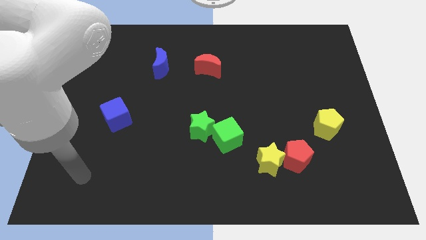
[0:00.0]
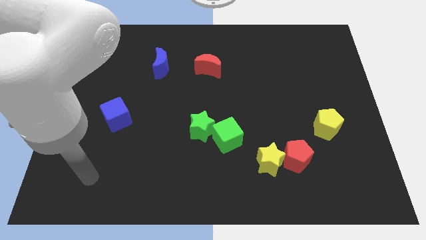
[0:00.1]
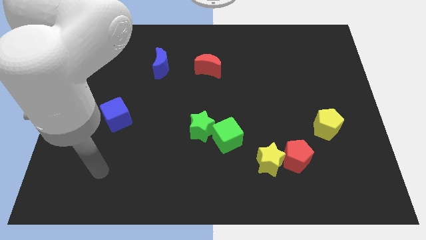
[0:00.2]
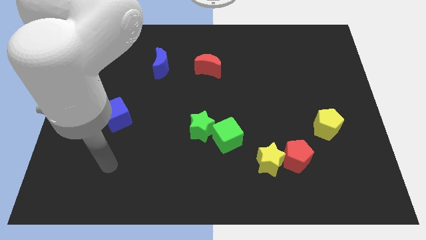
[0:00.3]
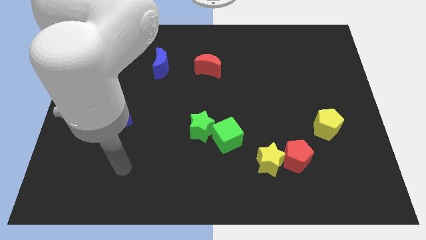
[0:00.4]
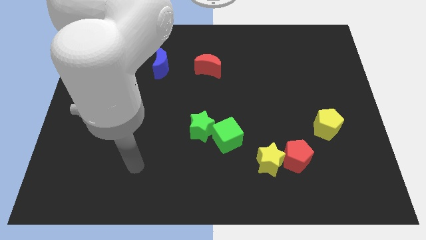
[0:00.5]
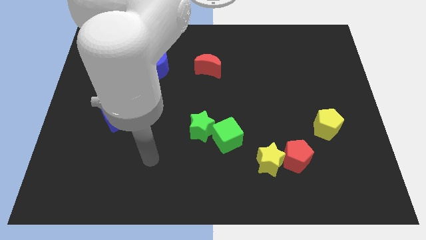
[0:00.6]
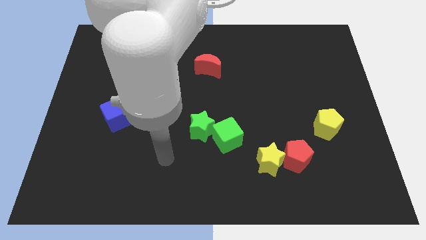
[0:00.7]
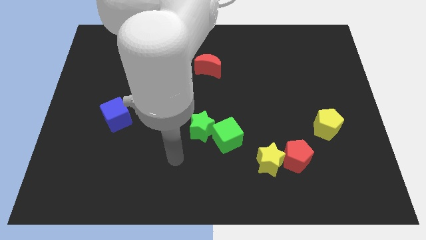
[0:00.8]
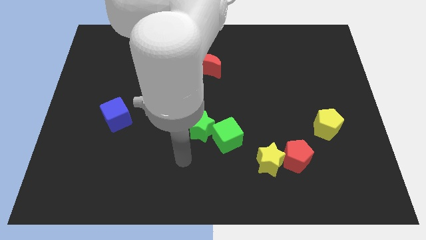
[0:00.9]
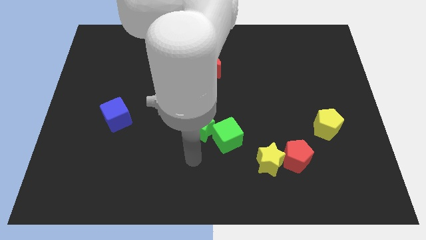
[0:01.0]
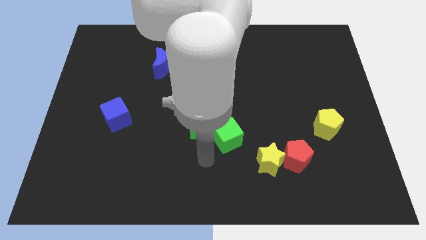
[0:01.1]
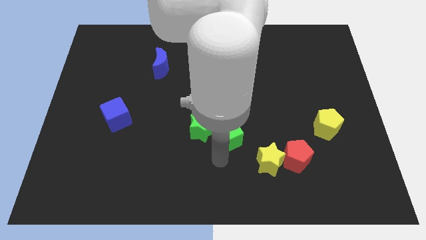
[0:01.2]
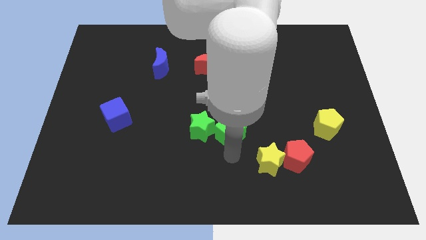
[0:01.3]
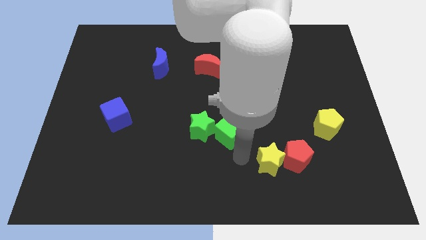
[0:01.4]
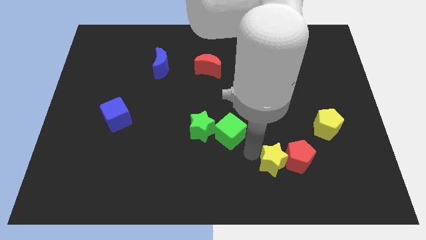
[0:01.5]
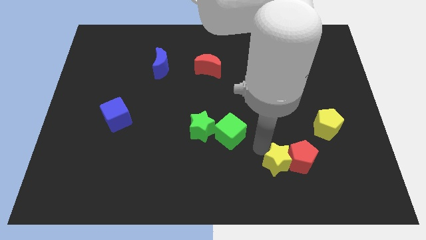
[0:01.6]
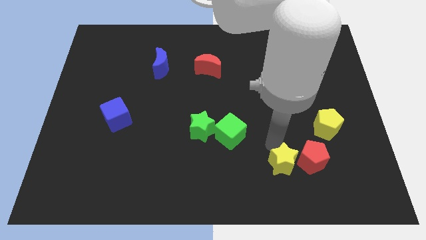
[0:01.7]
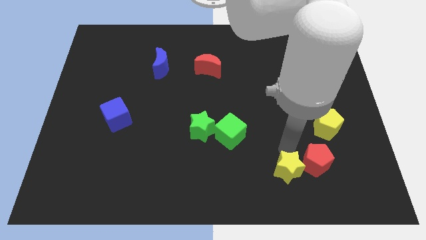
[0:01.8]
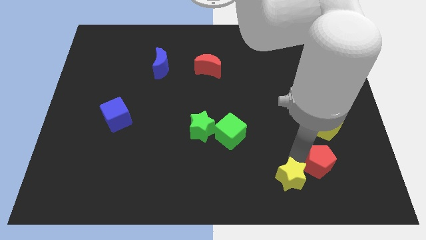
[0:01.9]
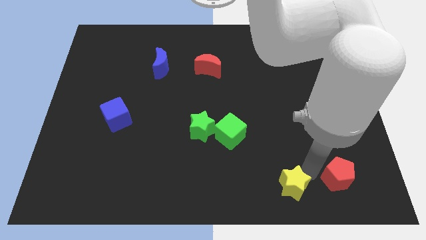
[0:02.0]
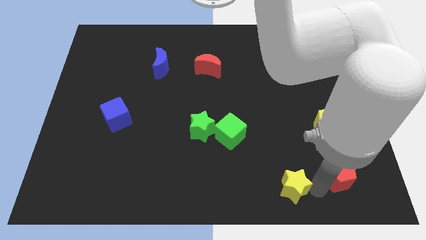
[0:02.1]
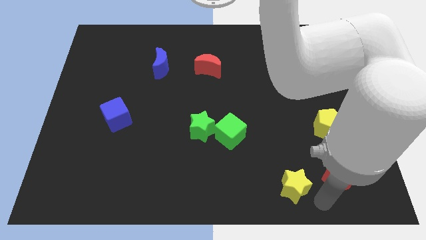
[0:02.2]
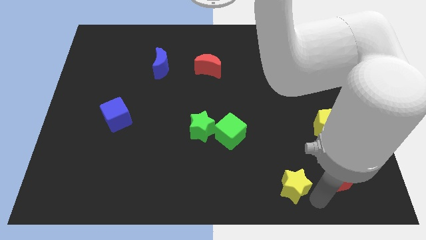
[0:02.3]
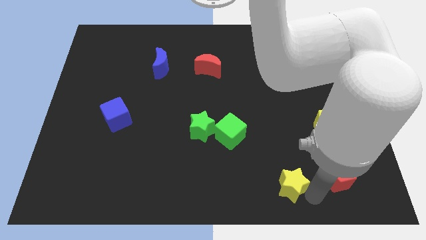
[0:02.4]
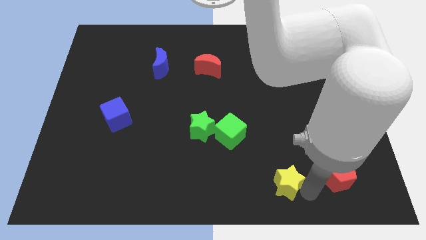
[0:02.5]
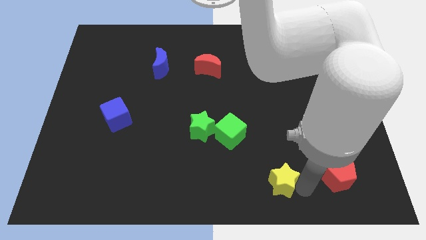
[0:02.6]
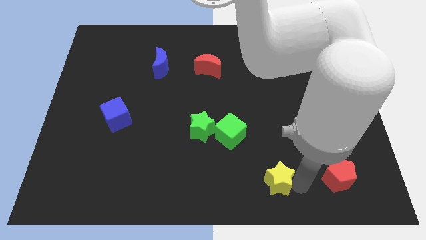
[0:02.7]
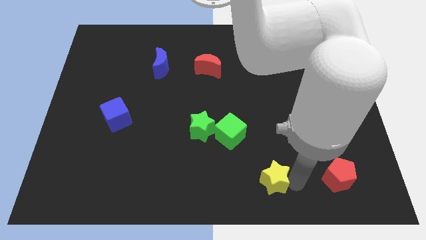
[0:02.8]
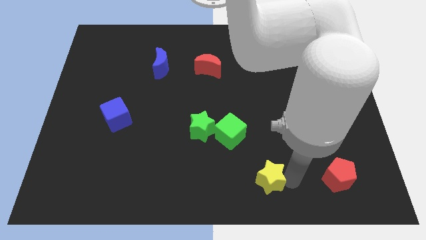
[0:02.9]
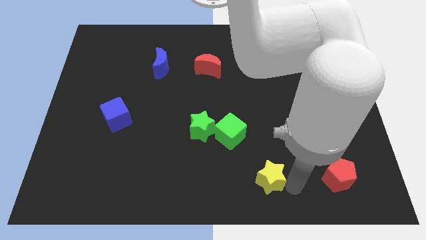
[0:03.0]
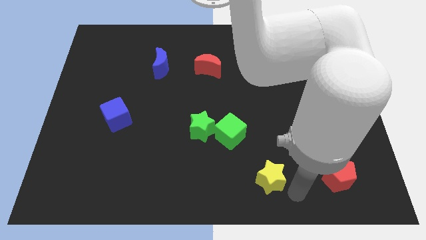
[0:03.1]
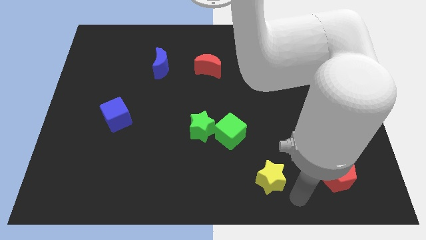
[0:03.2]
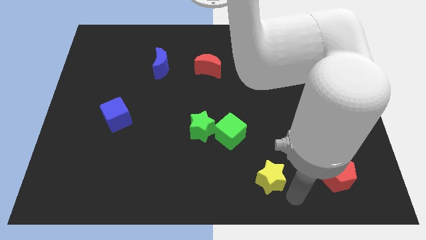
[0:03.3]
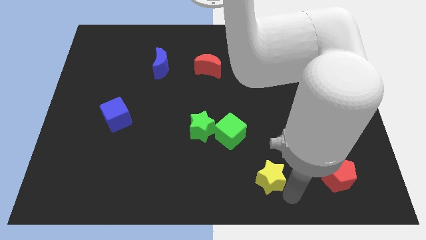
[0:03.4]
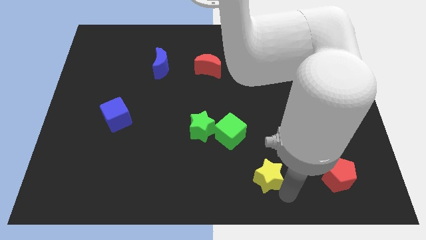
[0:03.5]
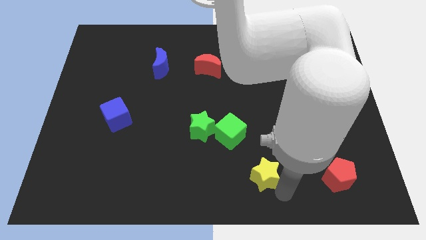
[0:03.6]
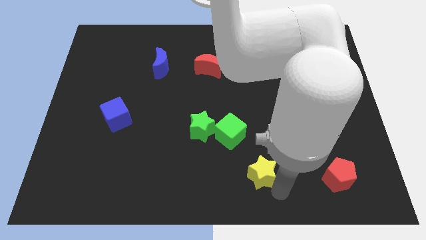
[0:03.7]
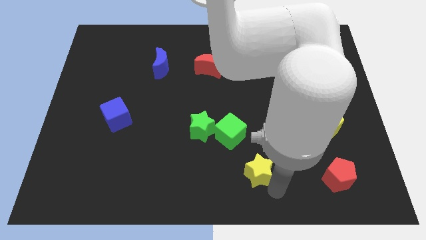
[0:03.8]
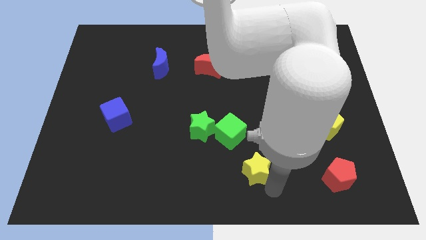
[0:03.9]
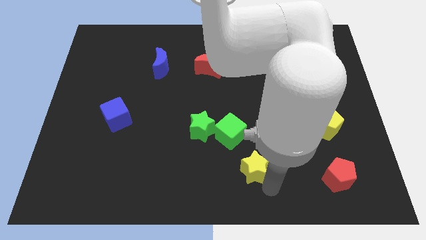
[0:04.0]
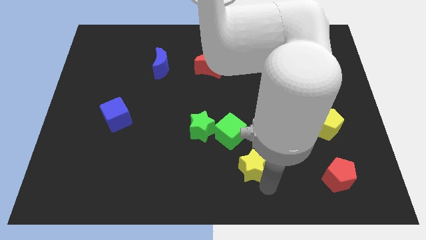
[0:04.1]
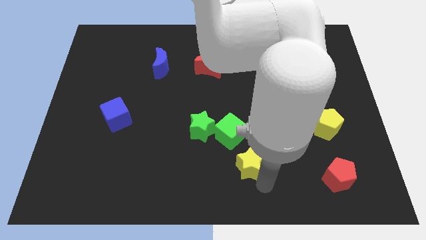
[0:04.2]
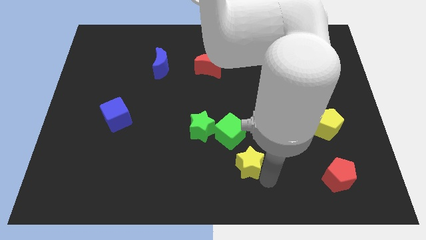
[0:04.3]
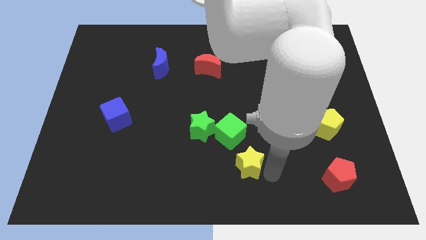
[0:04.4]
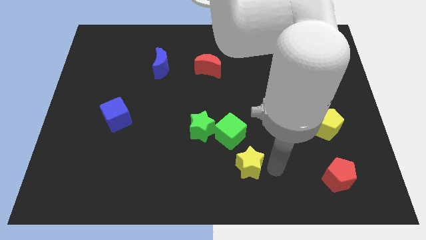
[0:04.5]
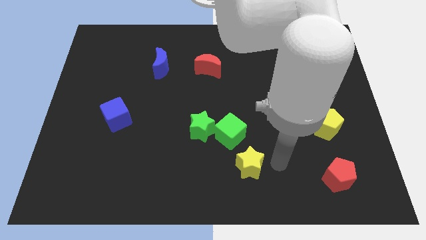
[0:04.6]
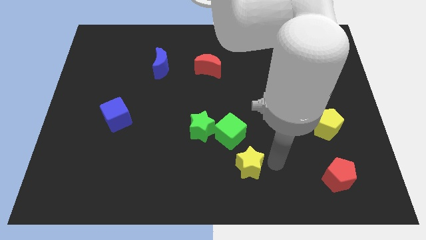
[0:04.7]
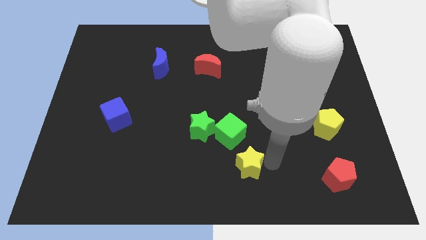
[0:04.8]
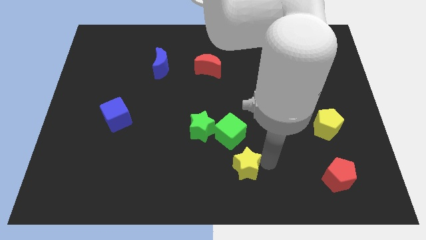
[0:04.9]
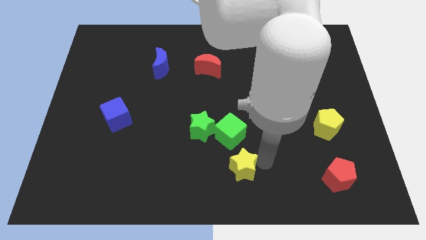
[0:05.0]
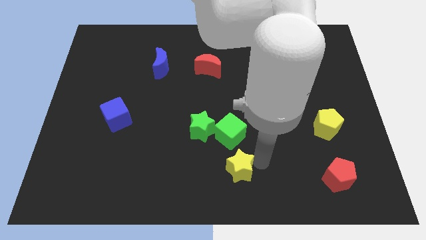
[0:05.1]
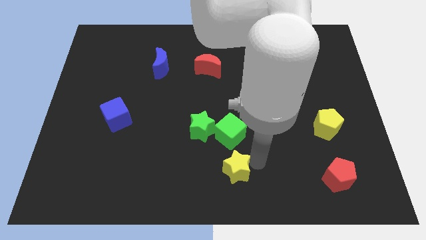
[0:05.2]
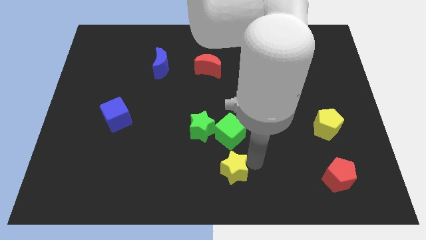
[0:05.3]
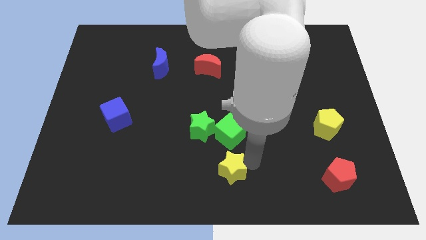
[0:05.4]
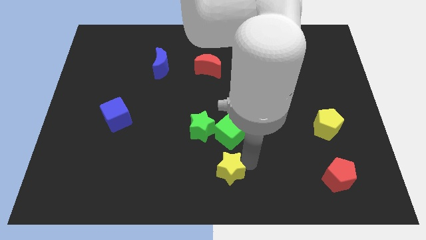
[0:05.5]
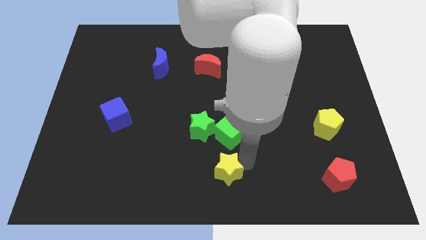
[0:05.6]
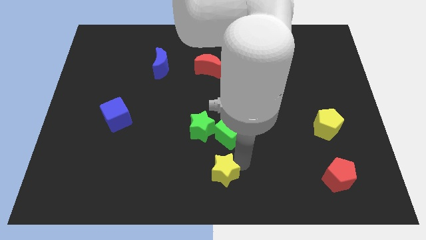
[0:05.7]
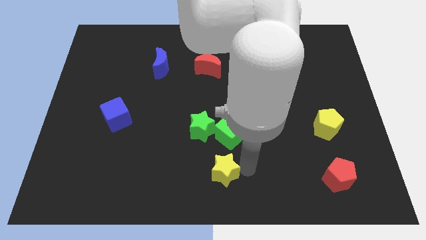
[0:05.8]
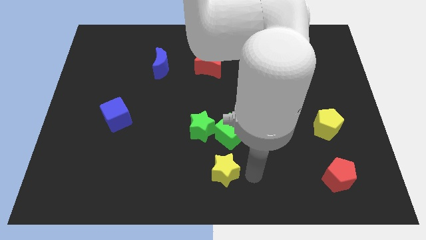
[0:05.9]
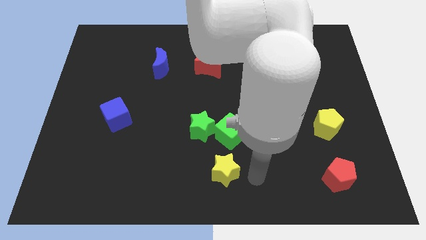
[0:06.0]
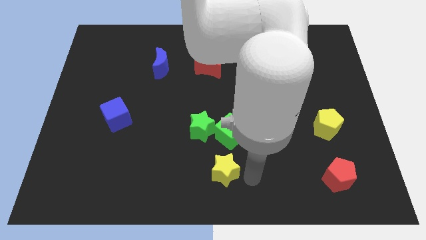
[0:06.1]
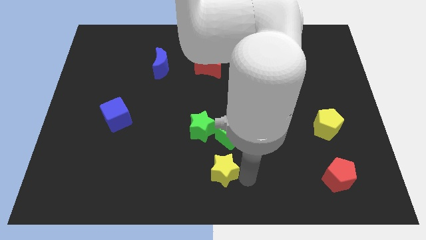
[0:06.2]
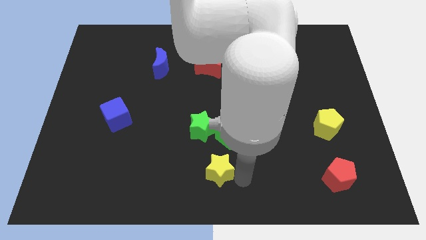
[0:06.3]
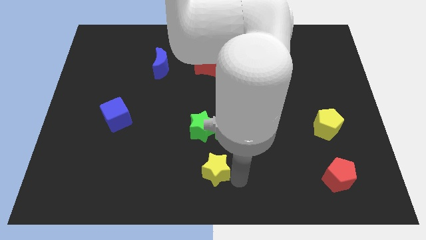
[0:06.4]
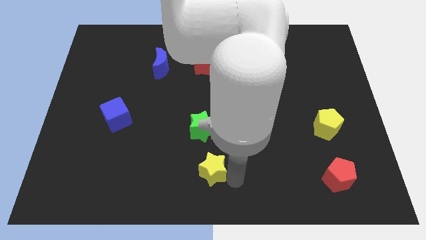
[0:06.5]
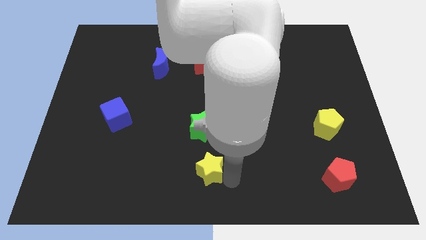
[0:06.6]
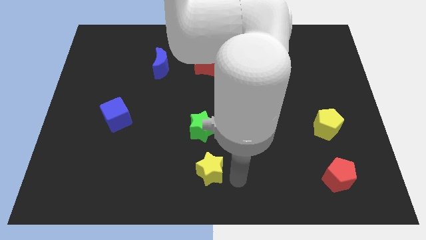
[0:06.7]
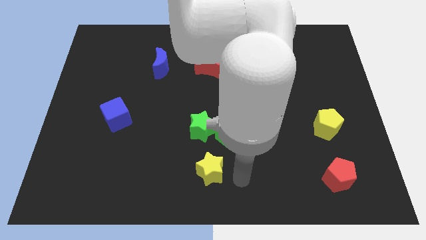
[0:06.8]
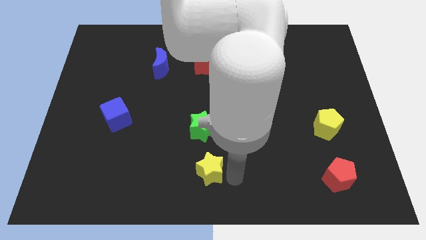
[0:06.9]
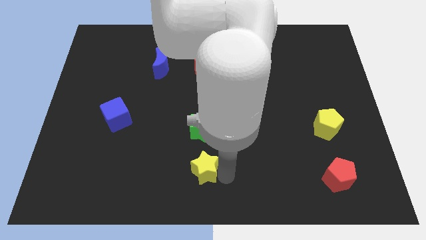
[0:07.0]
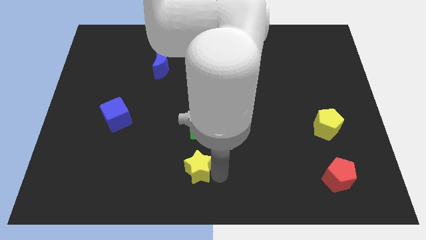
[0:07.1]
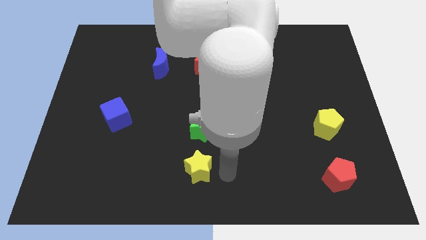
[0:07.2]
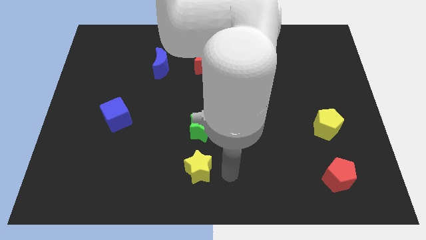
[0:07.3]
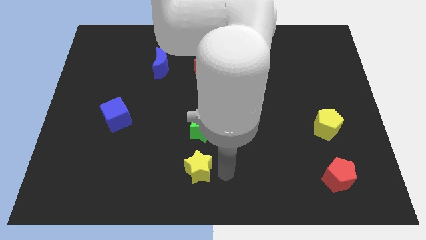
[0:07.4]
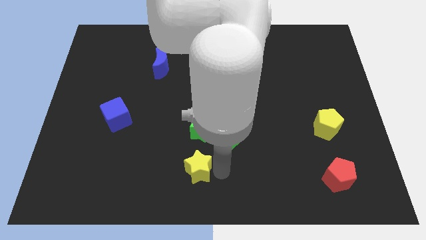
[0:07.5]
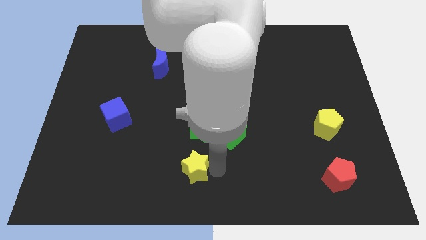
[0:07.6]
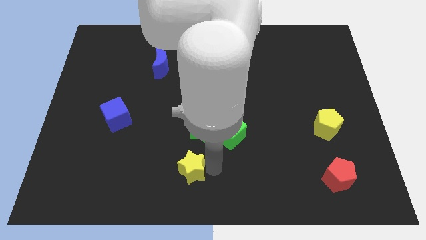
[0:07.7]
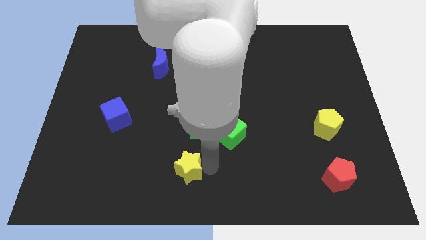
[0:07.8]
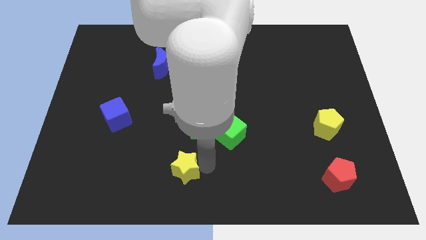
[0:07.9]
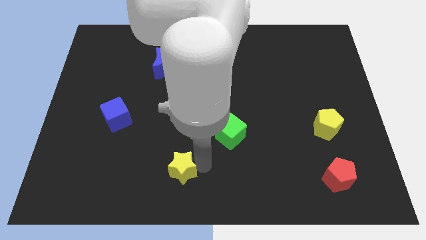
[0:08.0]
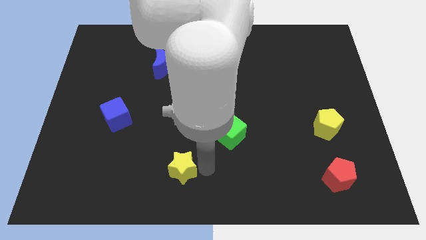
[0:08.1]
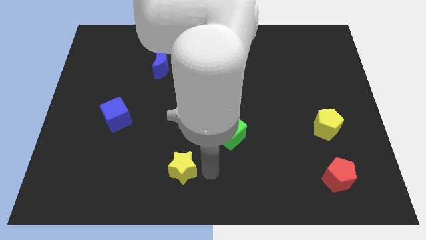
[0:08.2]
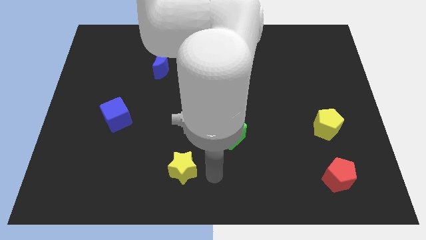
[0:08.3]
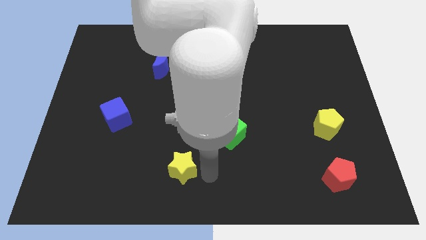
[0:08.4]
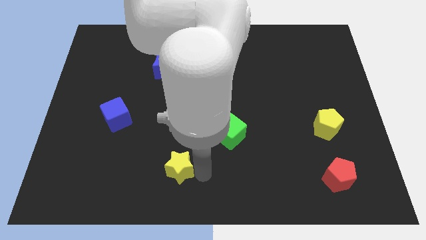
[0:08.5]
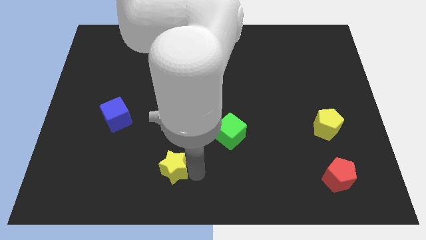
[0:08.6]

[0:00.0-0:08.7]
move the yellow star to the left
